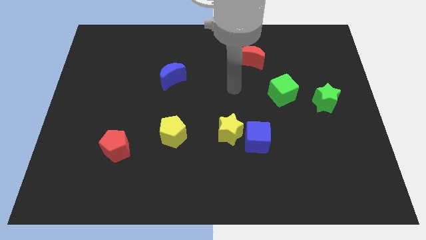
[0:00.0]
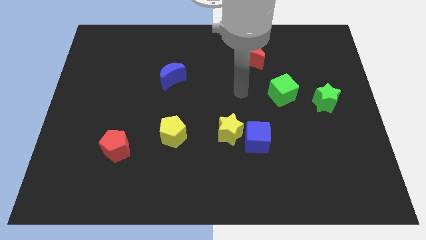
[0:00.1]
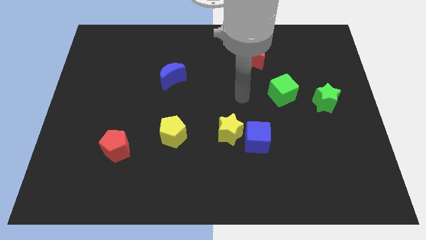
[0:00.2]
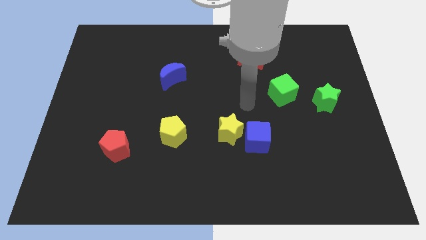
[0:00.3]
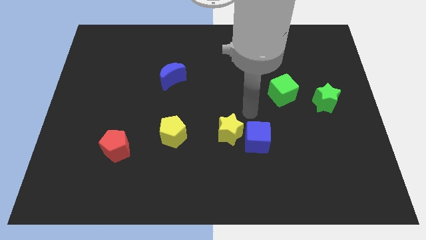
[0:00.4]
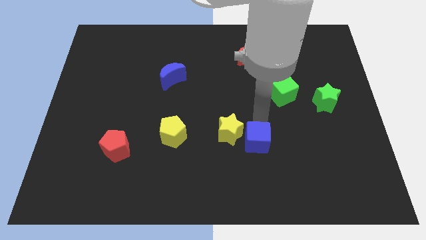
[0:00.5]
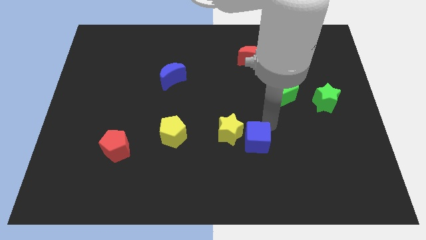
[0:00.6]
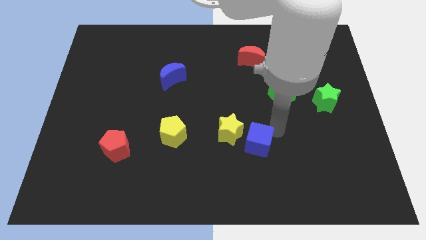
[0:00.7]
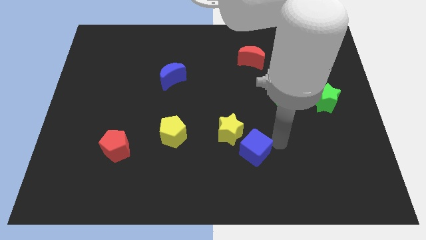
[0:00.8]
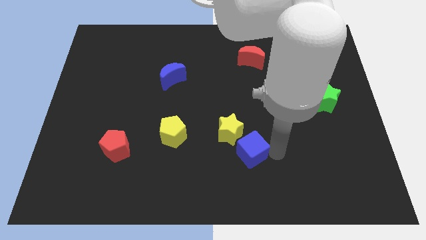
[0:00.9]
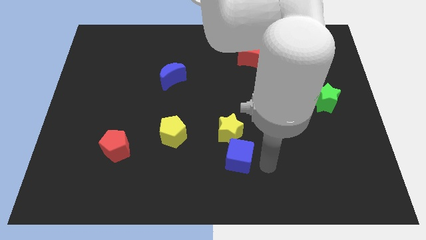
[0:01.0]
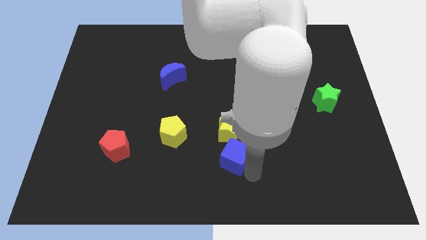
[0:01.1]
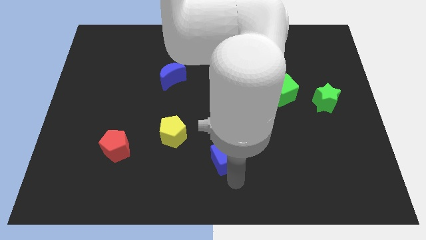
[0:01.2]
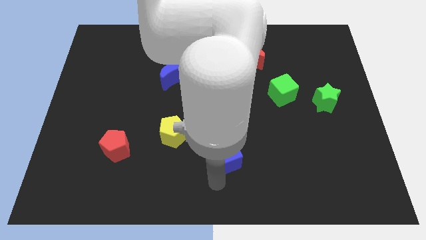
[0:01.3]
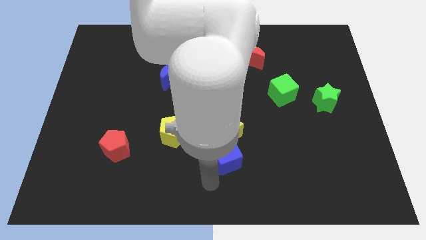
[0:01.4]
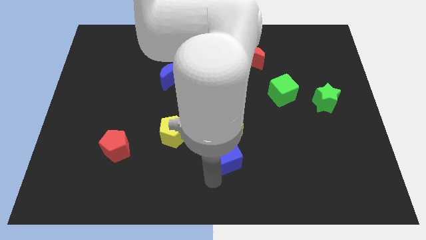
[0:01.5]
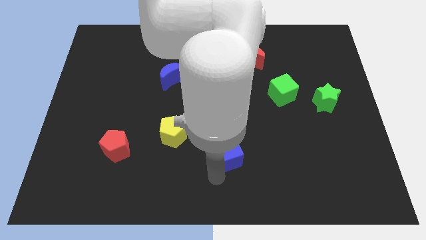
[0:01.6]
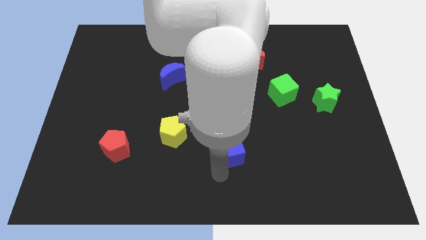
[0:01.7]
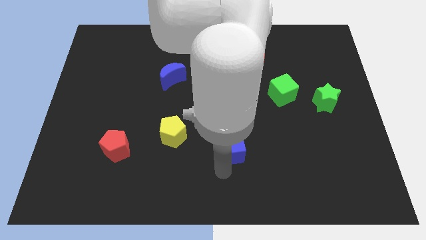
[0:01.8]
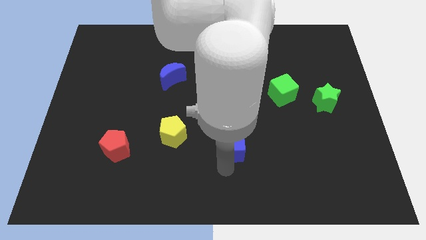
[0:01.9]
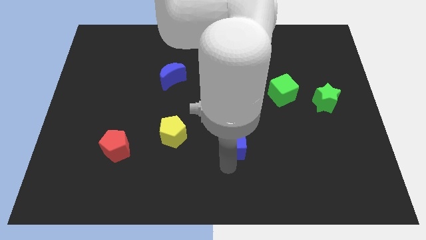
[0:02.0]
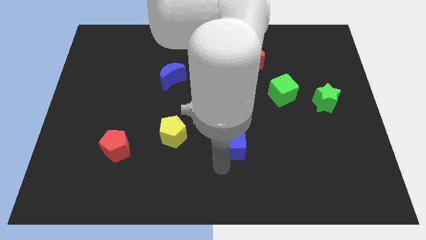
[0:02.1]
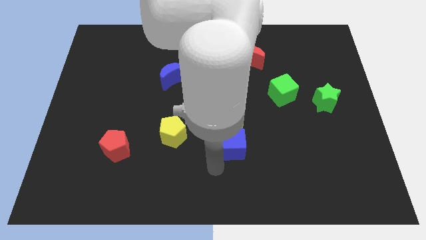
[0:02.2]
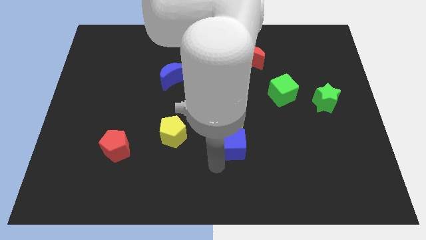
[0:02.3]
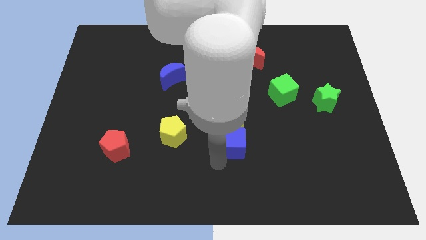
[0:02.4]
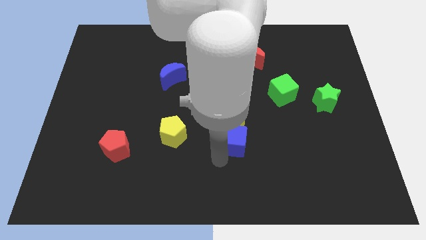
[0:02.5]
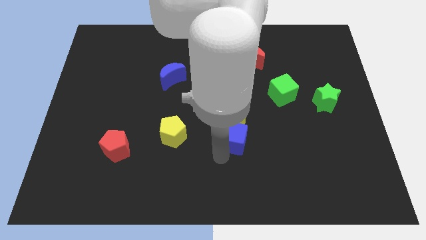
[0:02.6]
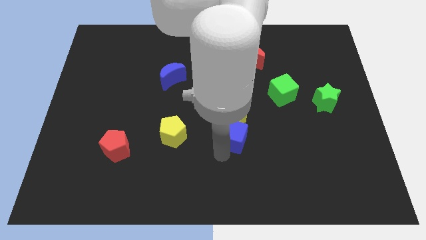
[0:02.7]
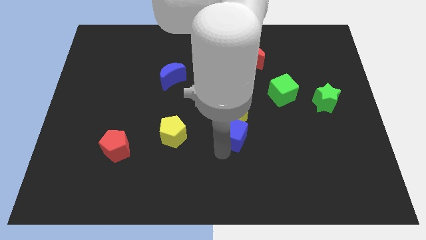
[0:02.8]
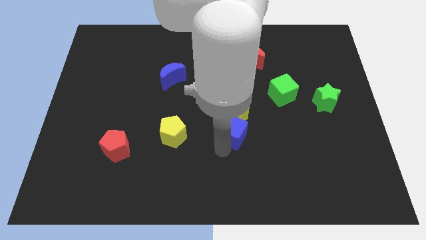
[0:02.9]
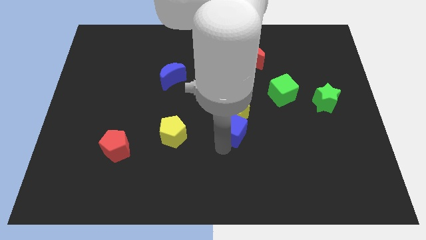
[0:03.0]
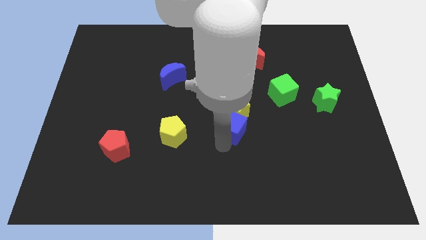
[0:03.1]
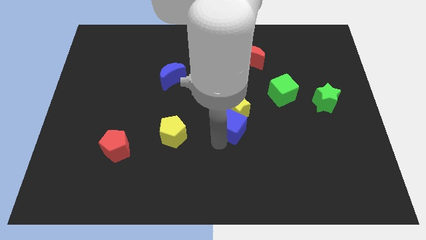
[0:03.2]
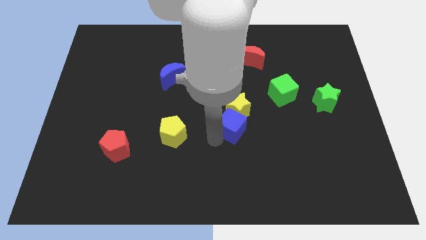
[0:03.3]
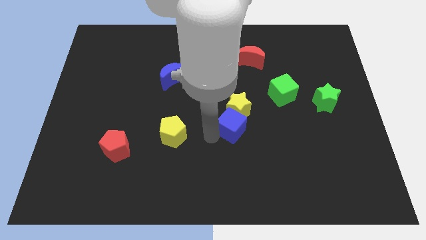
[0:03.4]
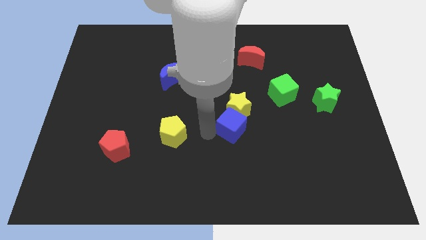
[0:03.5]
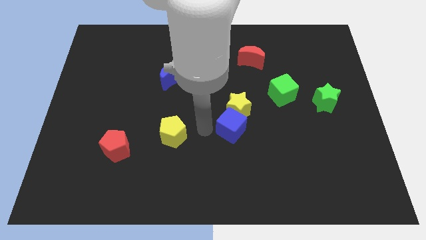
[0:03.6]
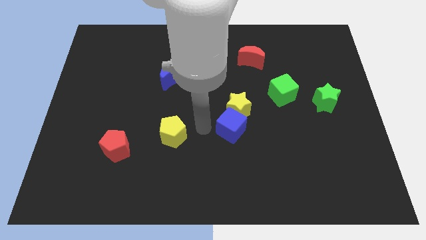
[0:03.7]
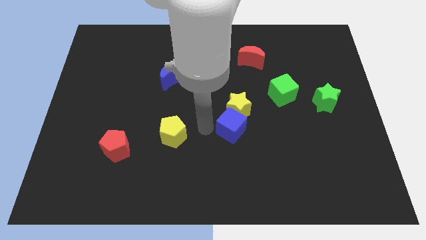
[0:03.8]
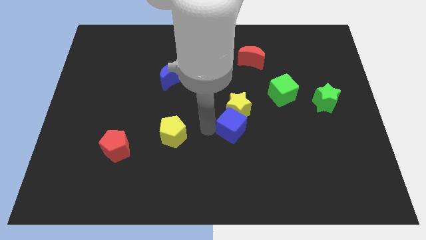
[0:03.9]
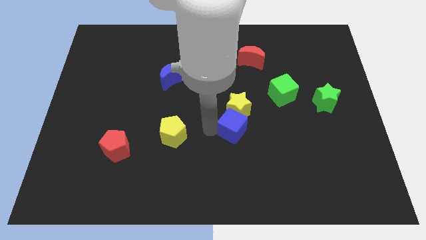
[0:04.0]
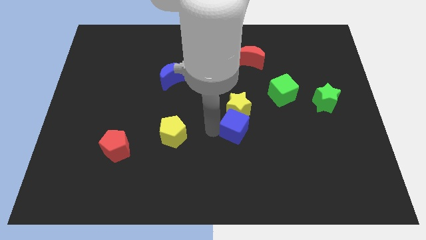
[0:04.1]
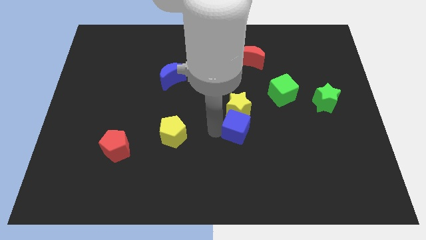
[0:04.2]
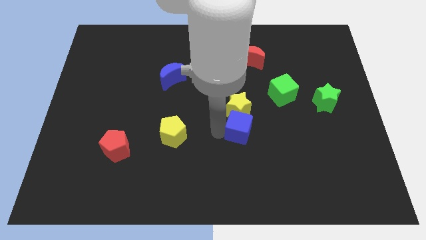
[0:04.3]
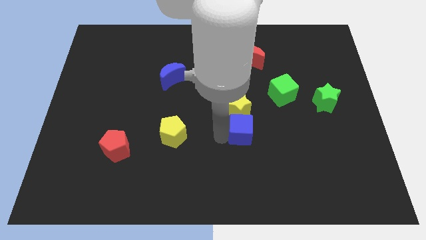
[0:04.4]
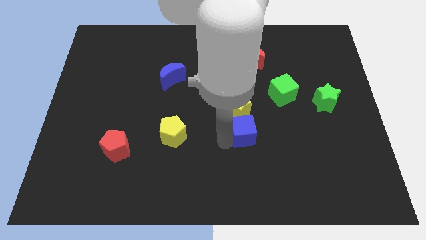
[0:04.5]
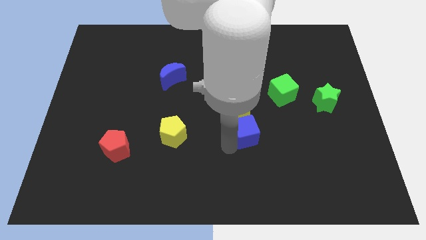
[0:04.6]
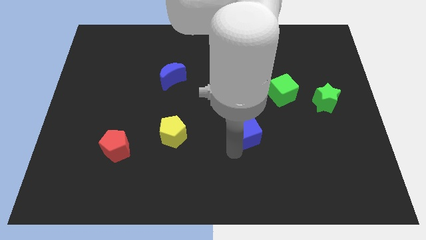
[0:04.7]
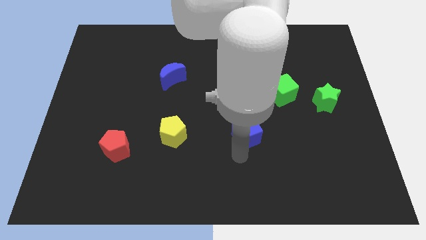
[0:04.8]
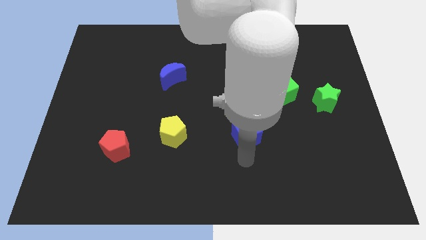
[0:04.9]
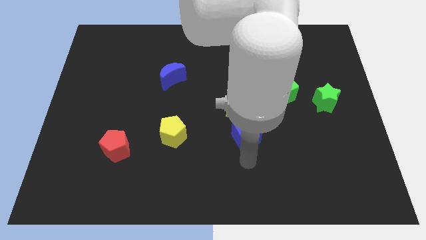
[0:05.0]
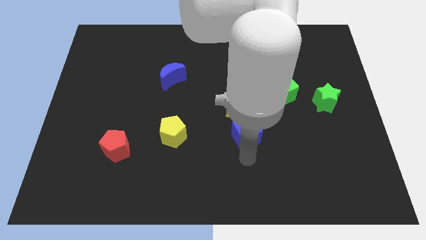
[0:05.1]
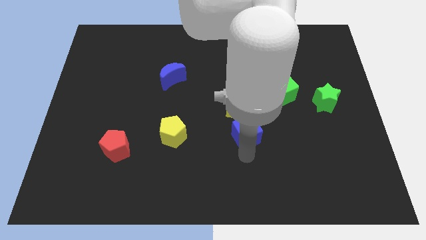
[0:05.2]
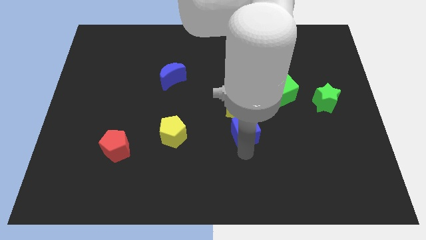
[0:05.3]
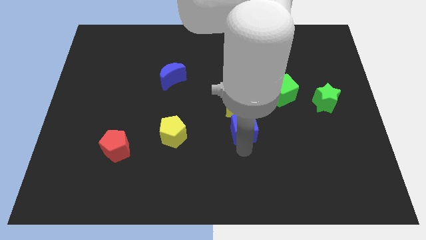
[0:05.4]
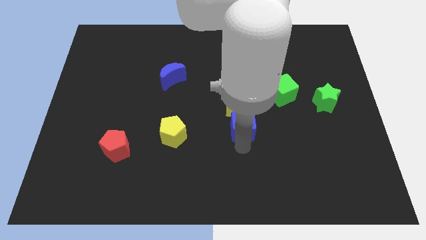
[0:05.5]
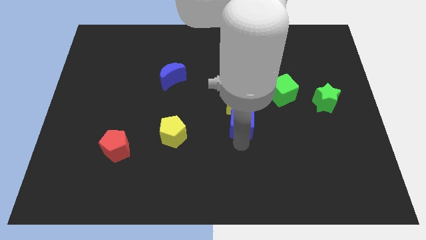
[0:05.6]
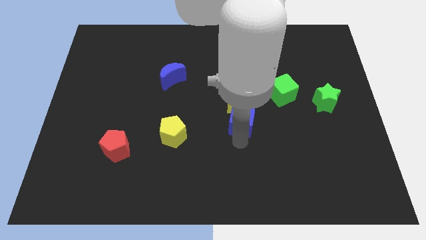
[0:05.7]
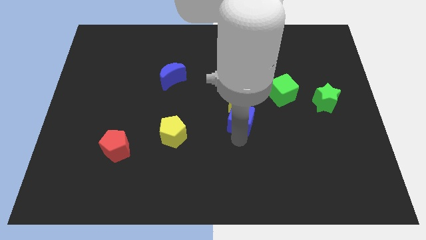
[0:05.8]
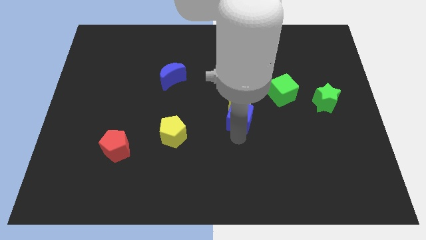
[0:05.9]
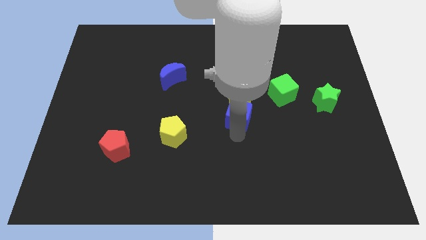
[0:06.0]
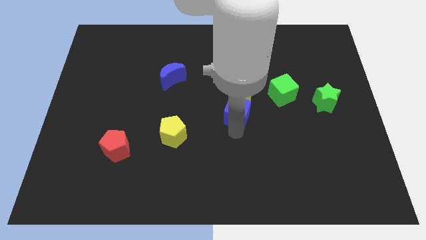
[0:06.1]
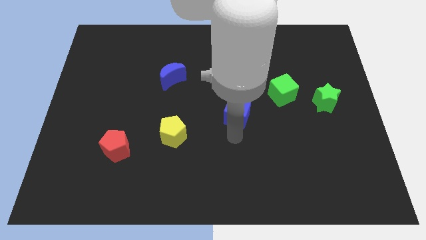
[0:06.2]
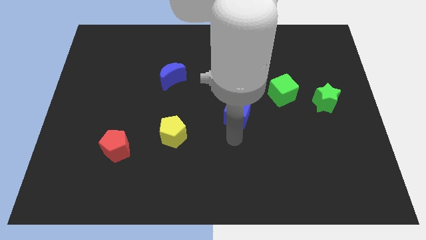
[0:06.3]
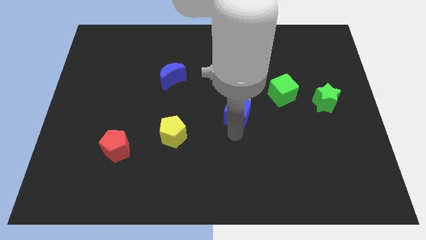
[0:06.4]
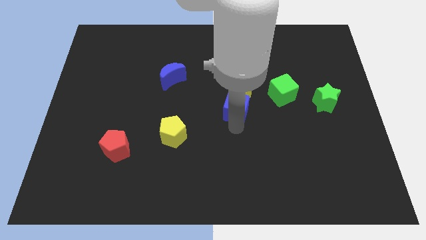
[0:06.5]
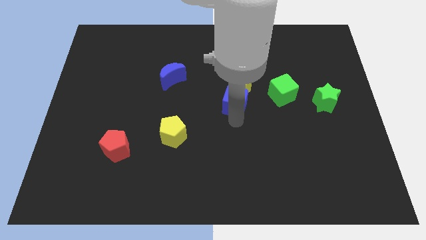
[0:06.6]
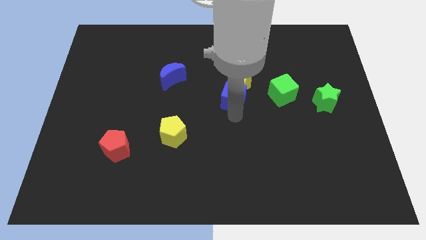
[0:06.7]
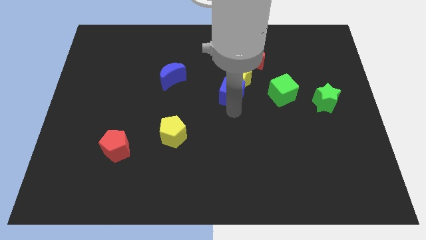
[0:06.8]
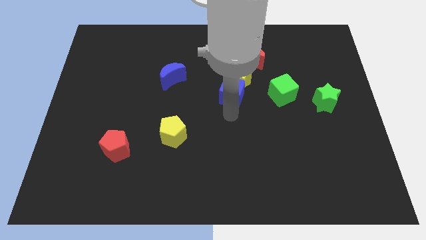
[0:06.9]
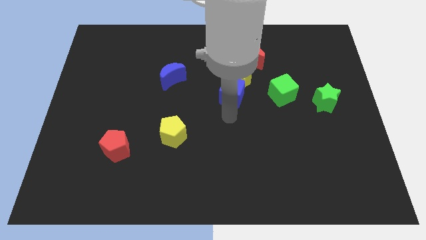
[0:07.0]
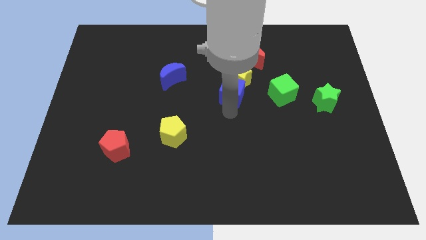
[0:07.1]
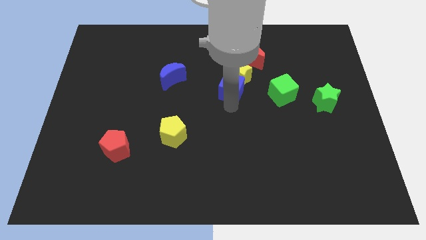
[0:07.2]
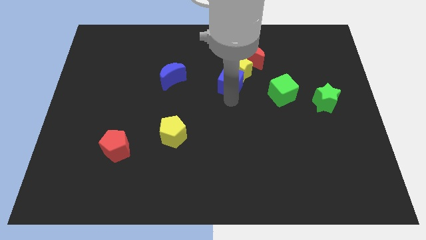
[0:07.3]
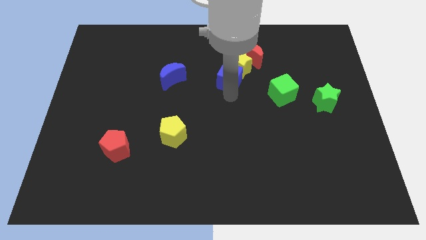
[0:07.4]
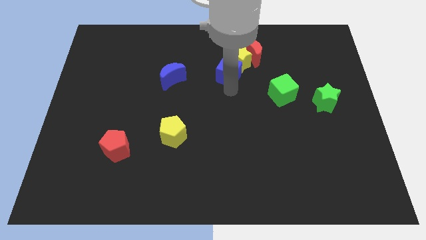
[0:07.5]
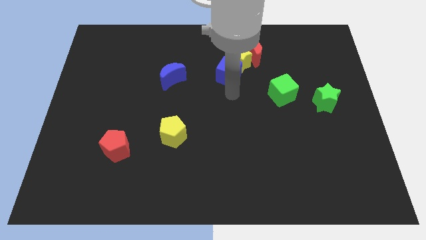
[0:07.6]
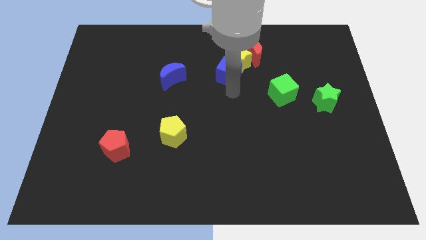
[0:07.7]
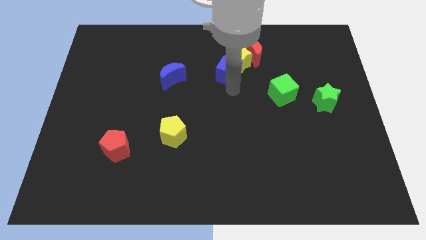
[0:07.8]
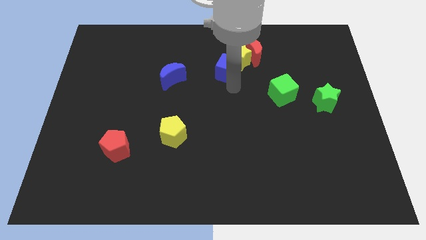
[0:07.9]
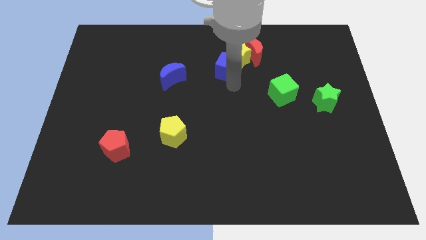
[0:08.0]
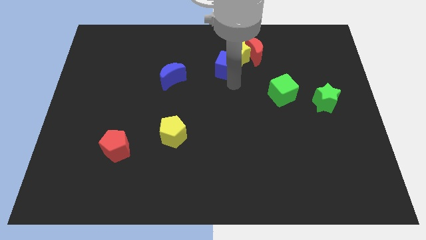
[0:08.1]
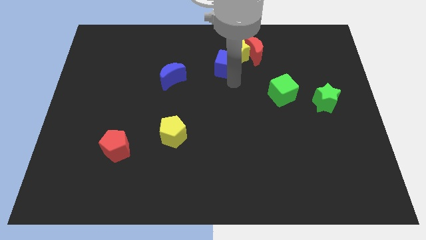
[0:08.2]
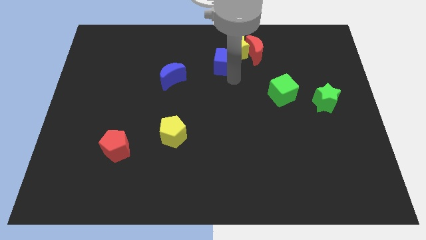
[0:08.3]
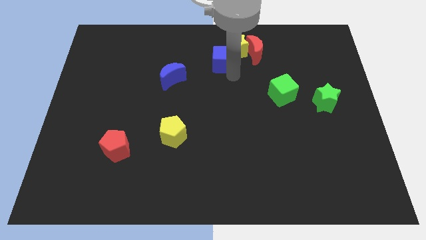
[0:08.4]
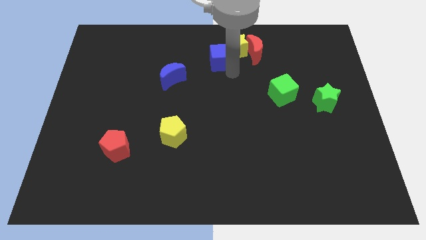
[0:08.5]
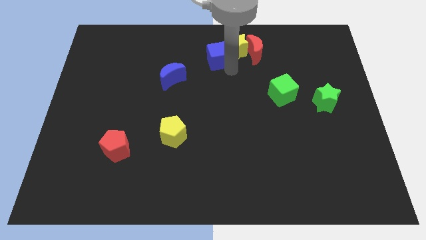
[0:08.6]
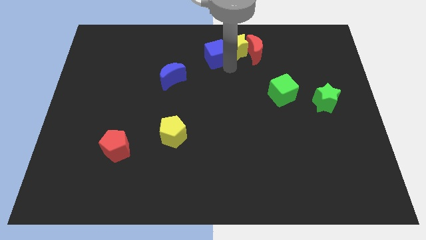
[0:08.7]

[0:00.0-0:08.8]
push the blue cube to the towards your base
